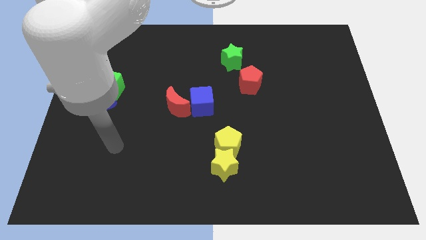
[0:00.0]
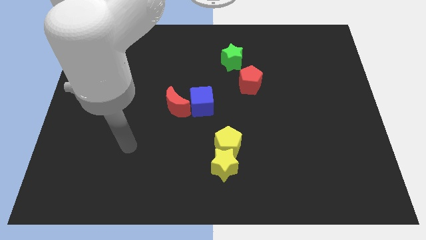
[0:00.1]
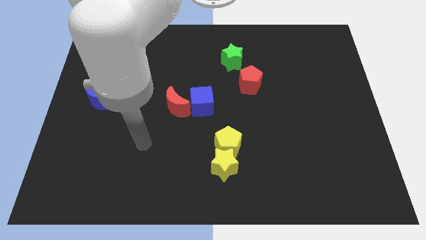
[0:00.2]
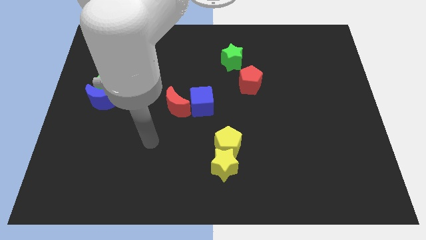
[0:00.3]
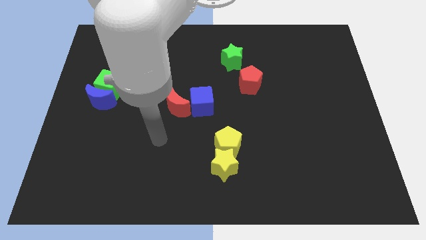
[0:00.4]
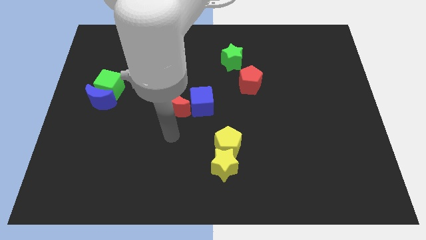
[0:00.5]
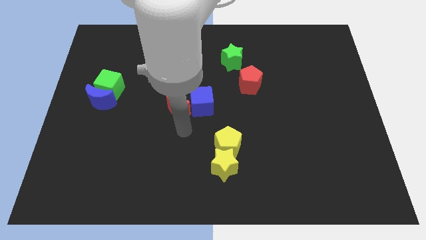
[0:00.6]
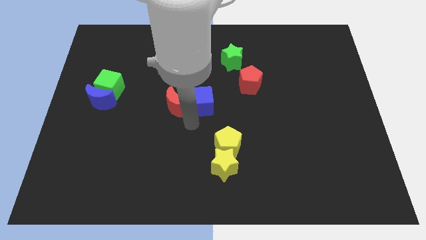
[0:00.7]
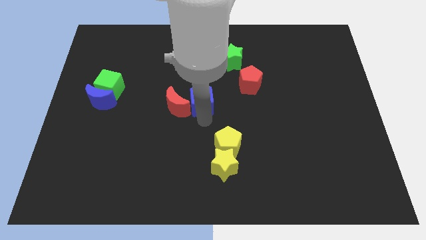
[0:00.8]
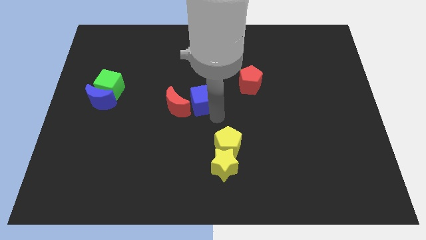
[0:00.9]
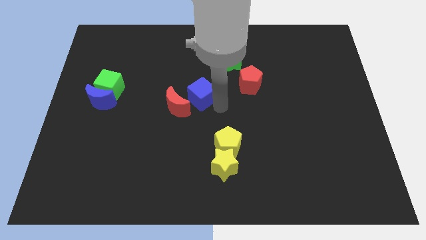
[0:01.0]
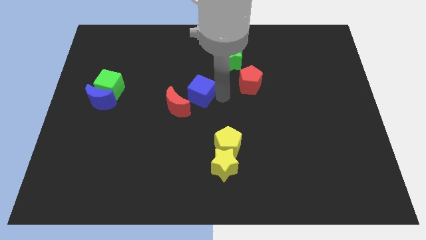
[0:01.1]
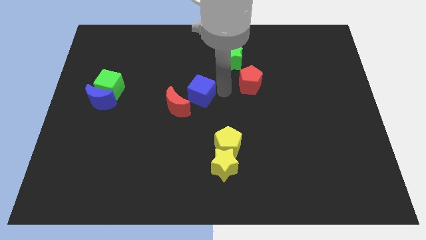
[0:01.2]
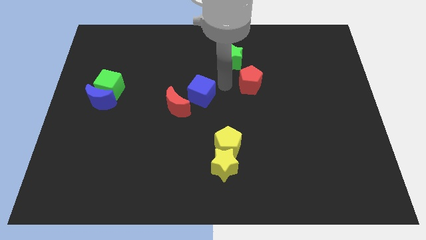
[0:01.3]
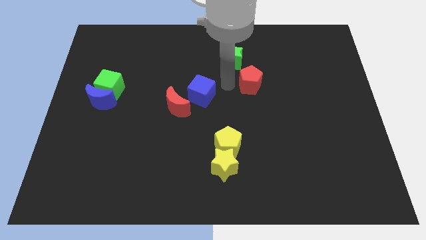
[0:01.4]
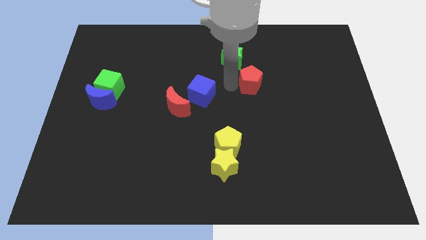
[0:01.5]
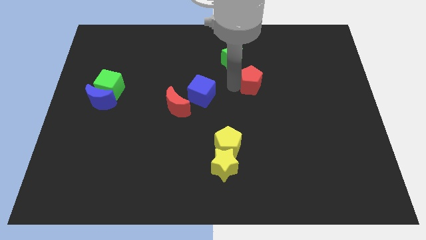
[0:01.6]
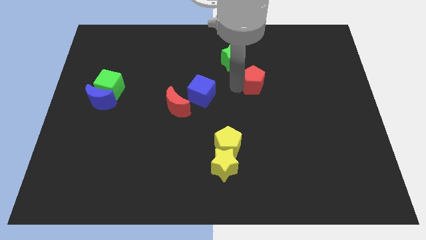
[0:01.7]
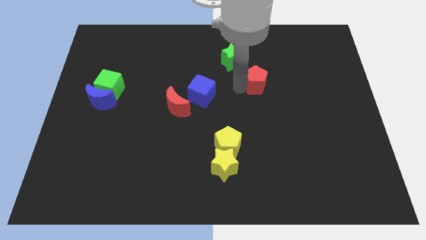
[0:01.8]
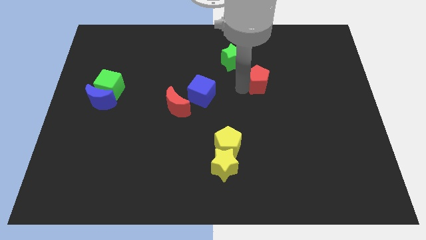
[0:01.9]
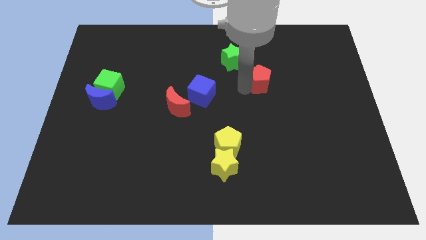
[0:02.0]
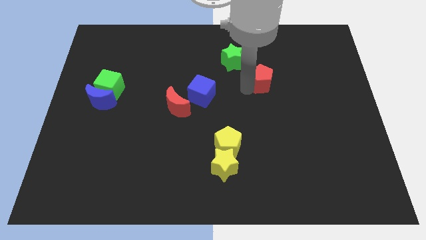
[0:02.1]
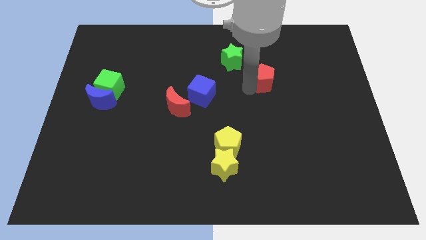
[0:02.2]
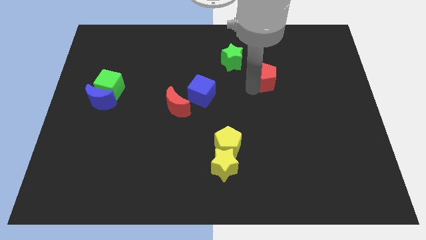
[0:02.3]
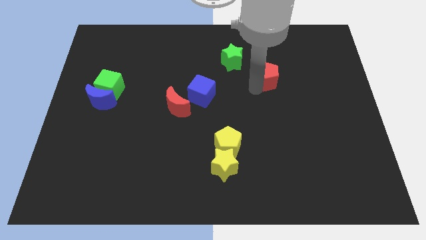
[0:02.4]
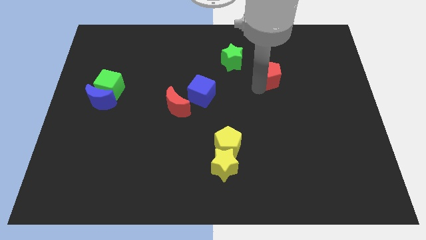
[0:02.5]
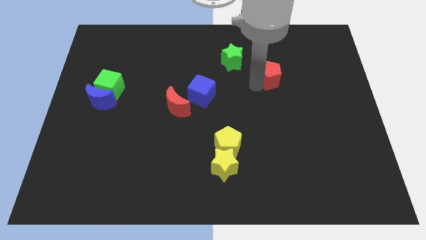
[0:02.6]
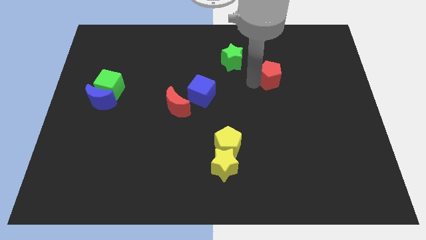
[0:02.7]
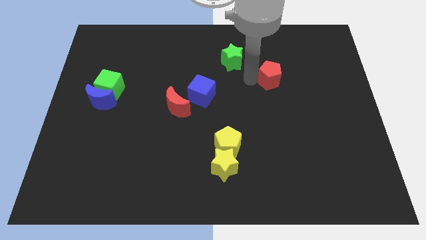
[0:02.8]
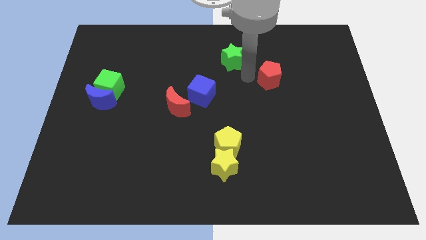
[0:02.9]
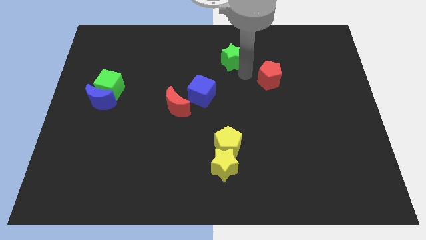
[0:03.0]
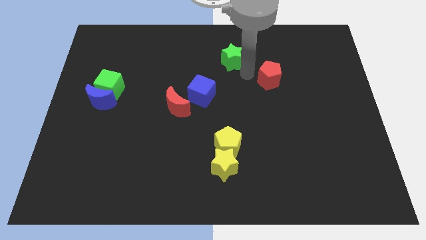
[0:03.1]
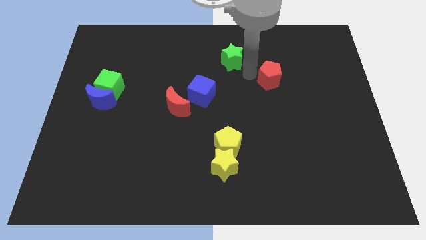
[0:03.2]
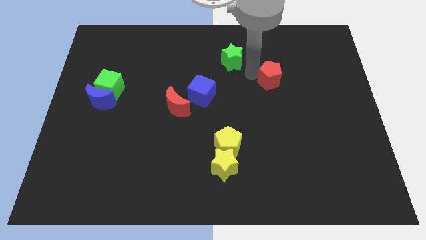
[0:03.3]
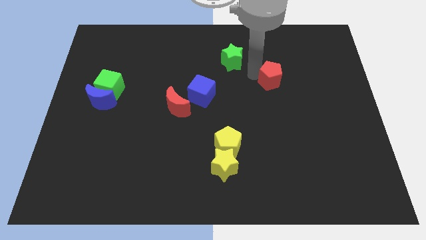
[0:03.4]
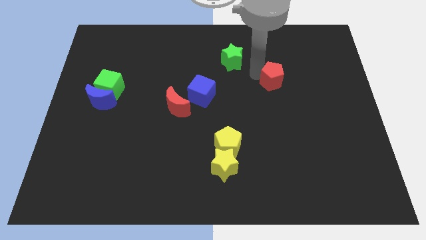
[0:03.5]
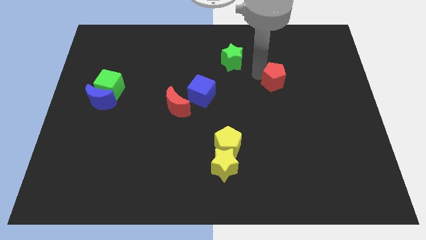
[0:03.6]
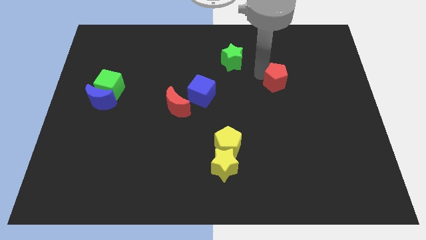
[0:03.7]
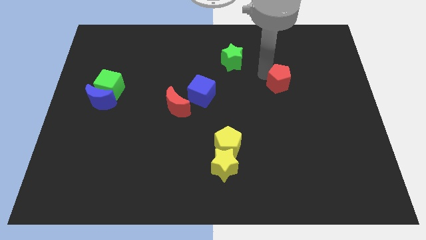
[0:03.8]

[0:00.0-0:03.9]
slide the red pentagon slightly right

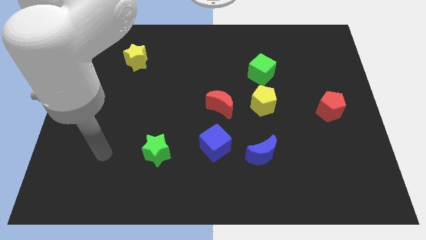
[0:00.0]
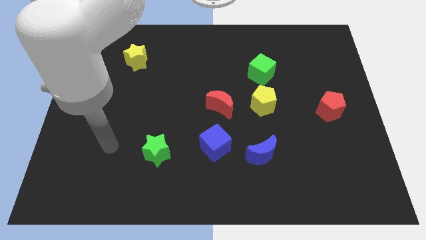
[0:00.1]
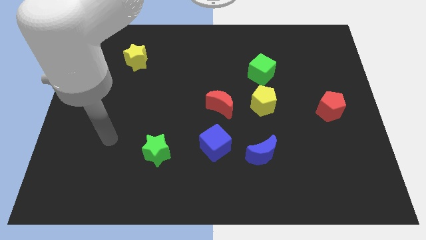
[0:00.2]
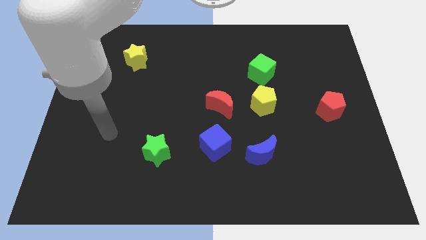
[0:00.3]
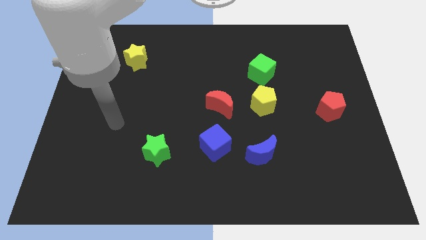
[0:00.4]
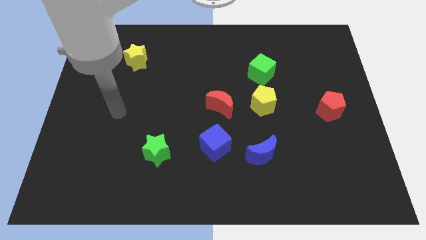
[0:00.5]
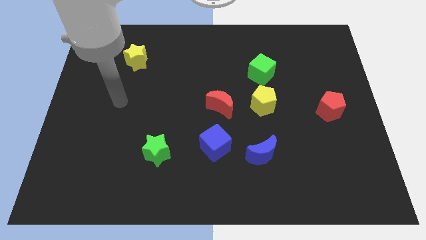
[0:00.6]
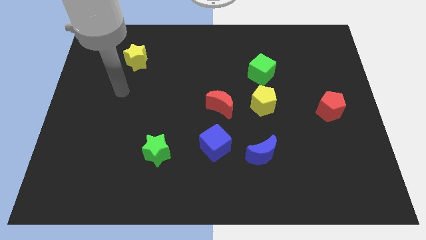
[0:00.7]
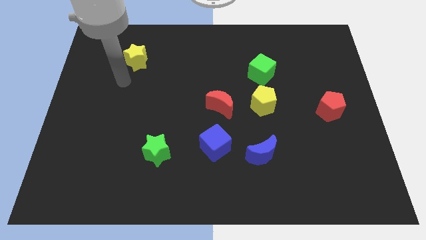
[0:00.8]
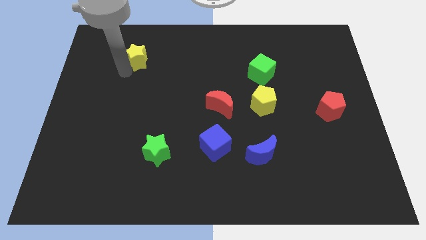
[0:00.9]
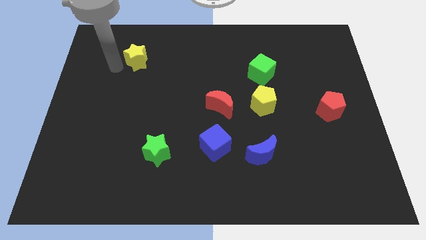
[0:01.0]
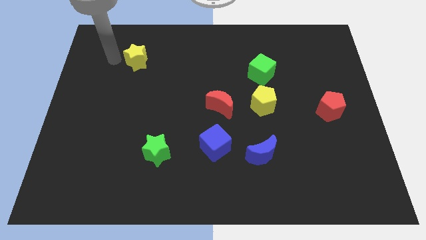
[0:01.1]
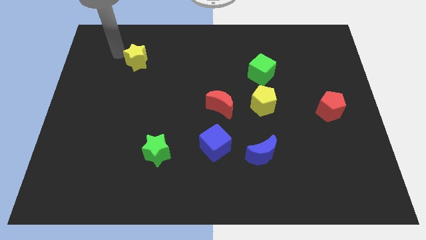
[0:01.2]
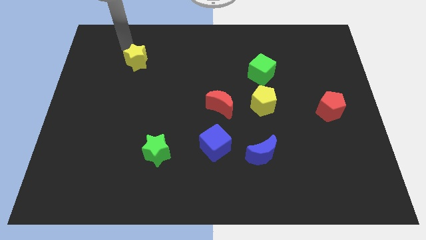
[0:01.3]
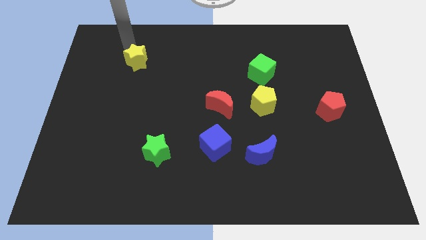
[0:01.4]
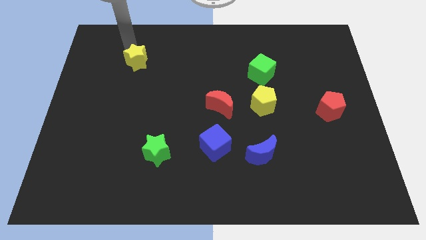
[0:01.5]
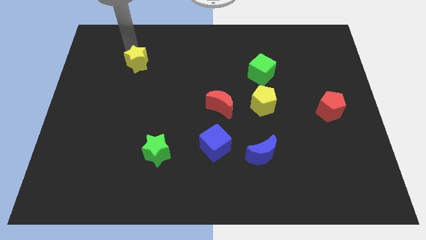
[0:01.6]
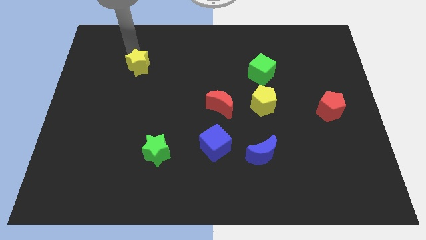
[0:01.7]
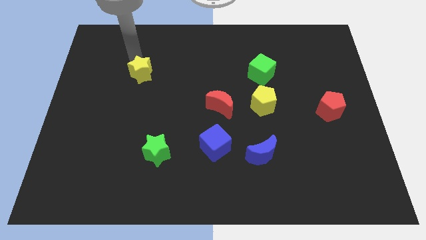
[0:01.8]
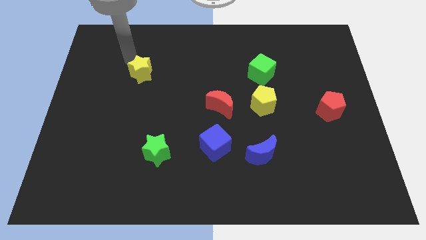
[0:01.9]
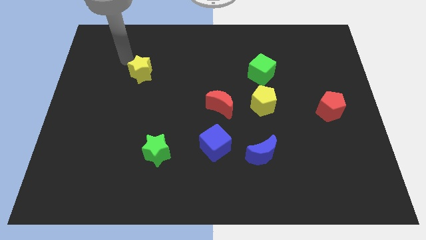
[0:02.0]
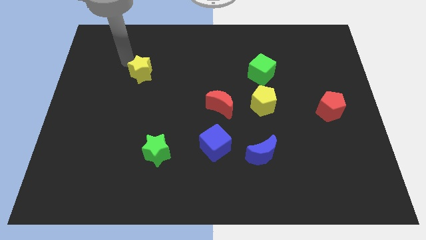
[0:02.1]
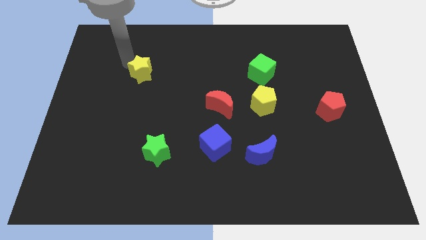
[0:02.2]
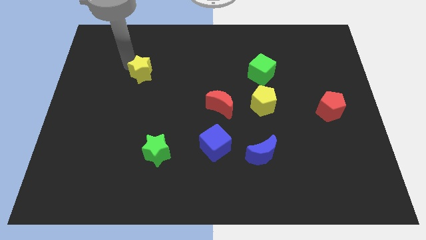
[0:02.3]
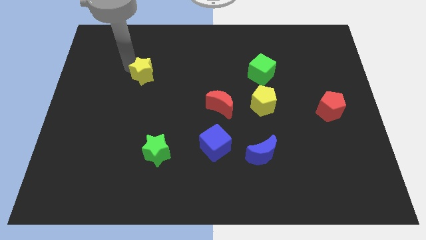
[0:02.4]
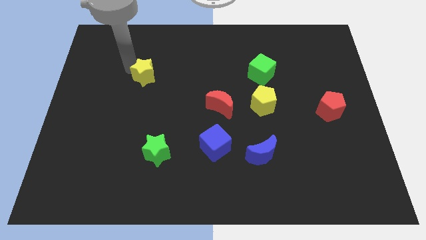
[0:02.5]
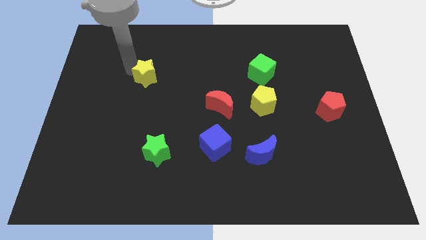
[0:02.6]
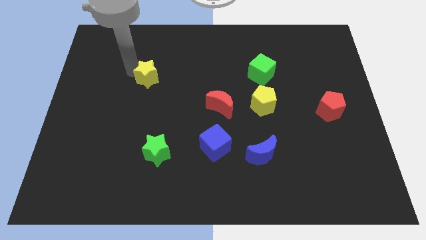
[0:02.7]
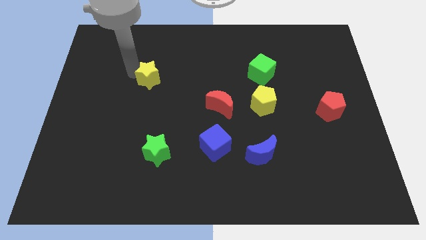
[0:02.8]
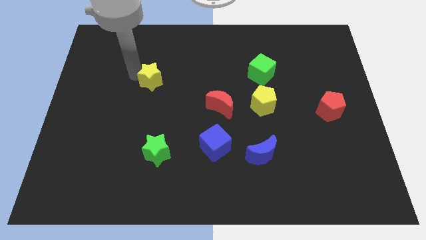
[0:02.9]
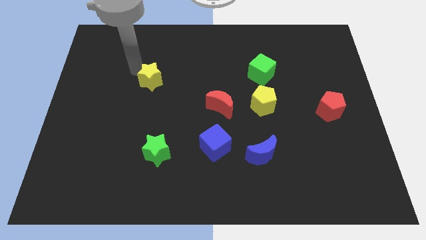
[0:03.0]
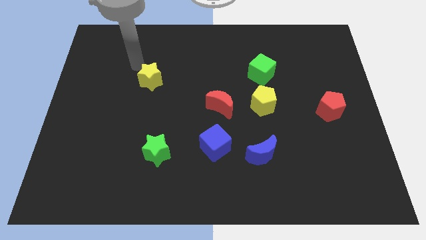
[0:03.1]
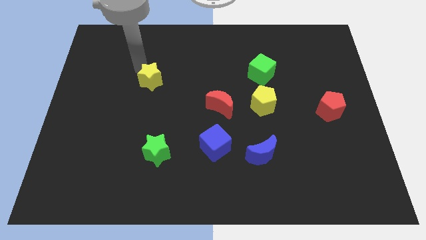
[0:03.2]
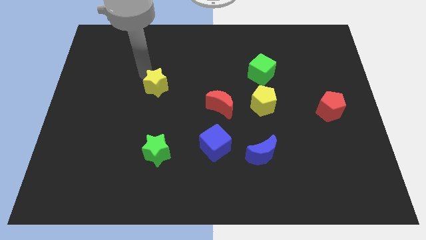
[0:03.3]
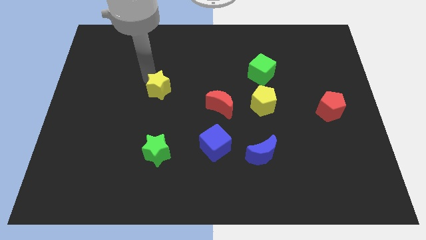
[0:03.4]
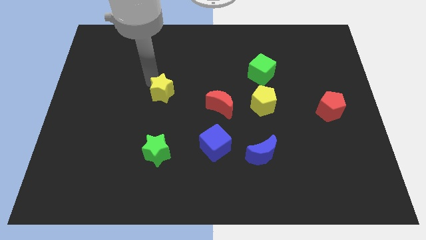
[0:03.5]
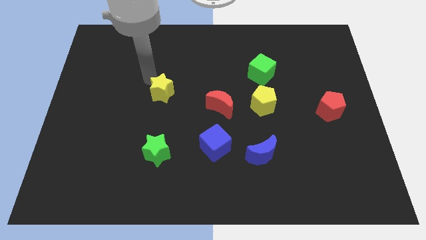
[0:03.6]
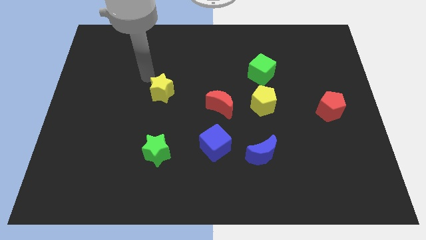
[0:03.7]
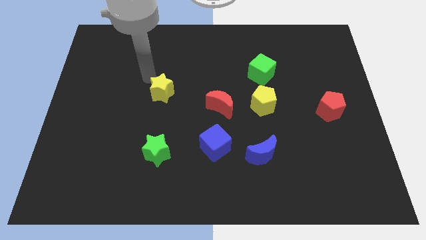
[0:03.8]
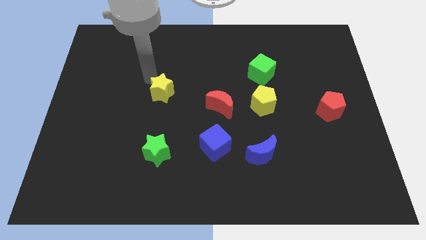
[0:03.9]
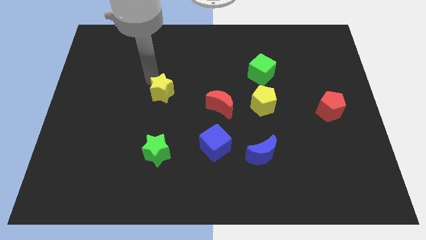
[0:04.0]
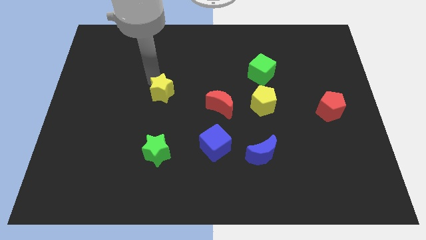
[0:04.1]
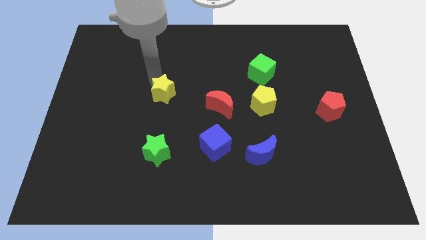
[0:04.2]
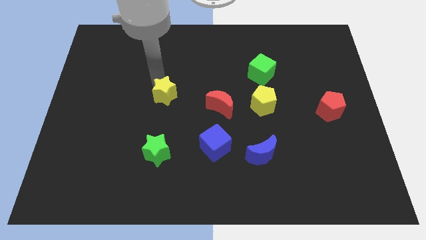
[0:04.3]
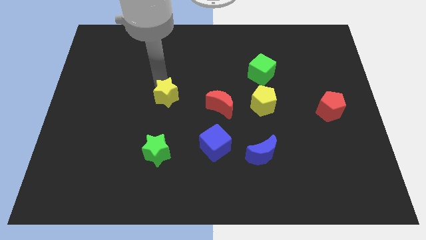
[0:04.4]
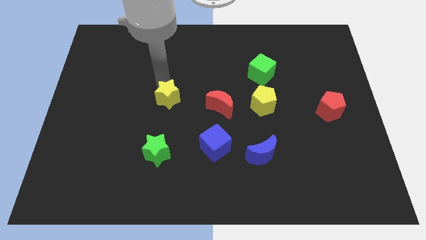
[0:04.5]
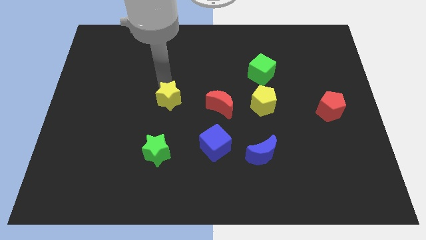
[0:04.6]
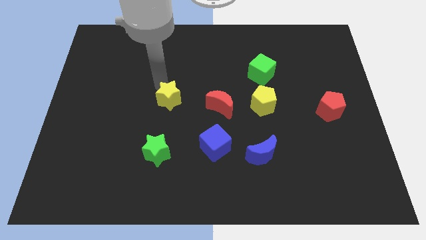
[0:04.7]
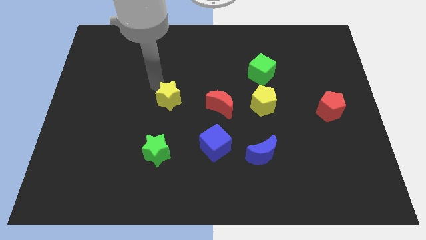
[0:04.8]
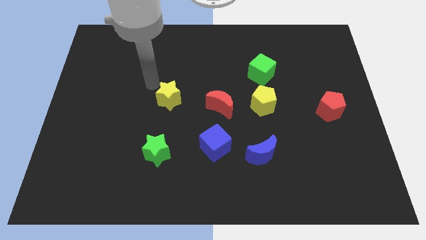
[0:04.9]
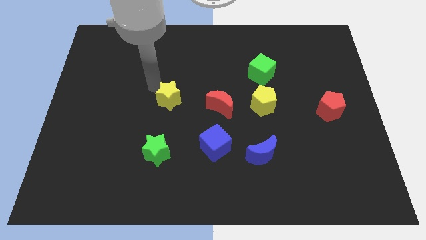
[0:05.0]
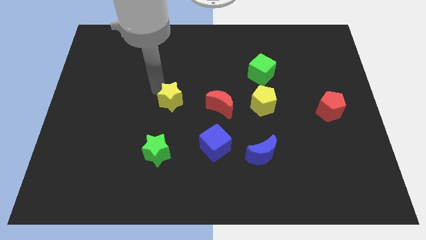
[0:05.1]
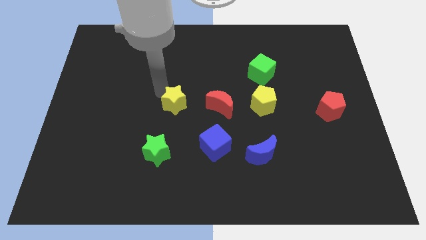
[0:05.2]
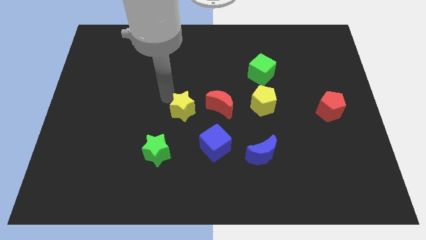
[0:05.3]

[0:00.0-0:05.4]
move the yellow star down and to the right
